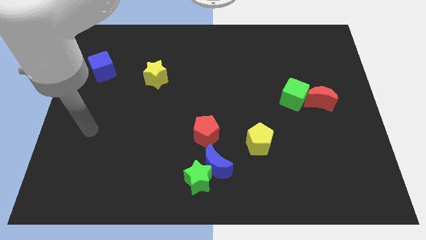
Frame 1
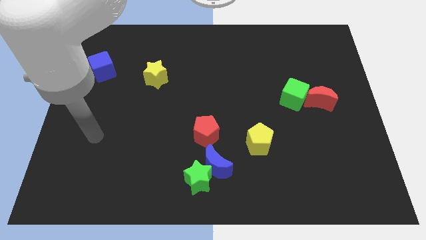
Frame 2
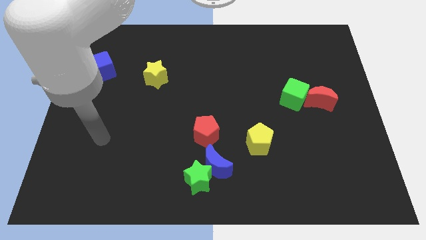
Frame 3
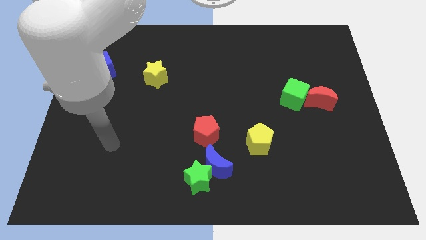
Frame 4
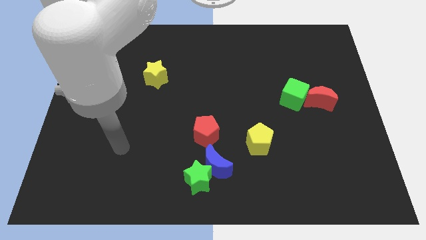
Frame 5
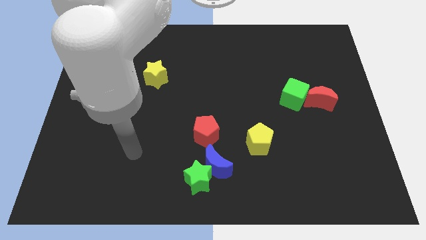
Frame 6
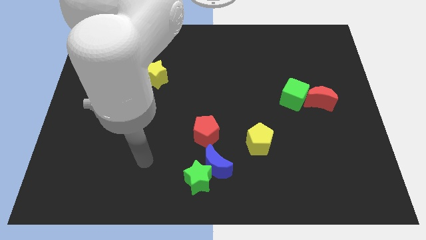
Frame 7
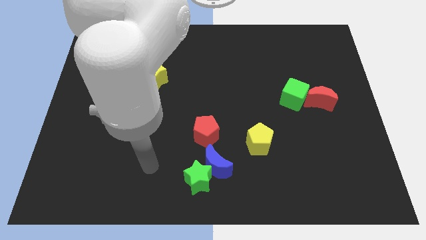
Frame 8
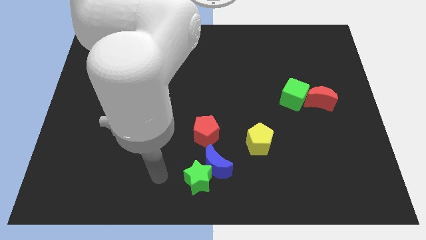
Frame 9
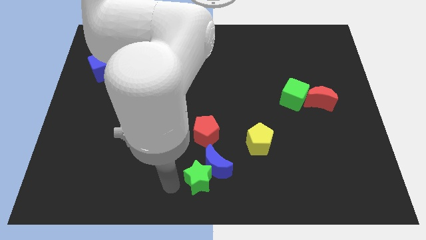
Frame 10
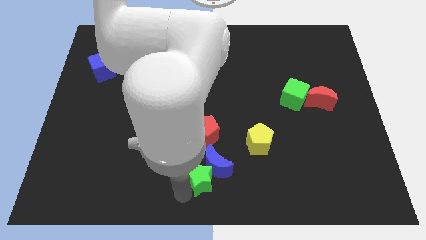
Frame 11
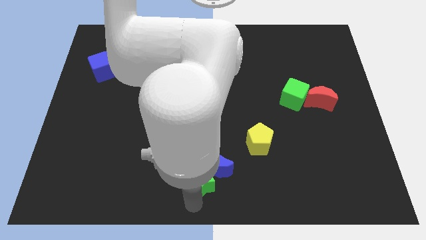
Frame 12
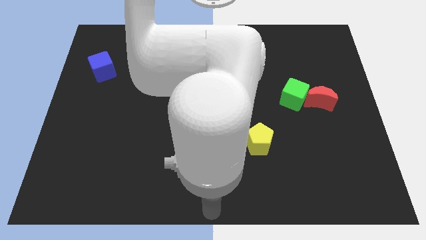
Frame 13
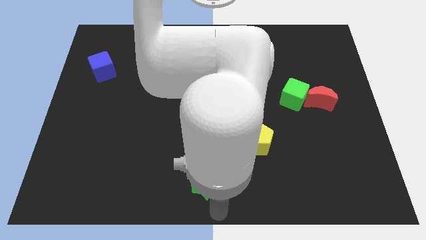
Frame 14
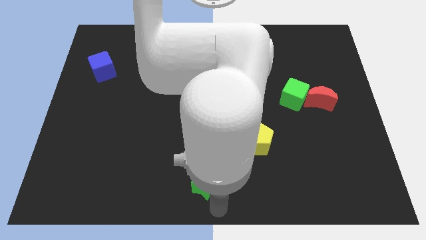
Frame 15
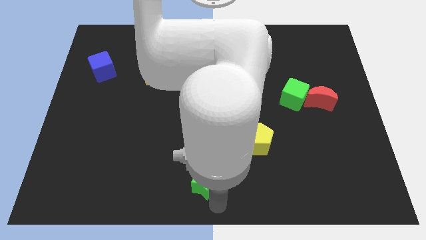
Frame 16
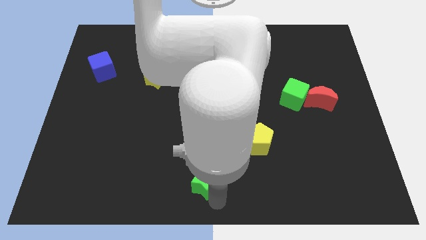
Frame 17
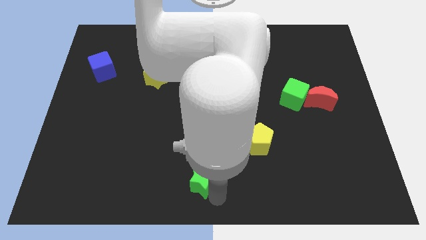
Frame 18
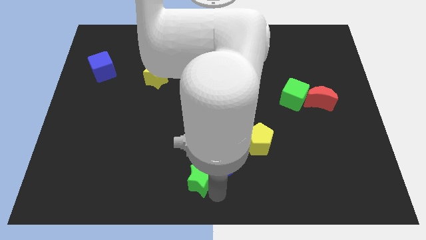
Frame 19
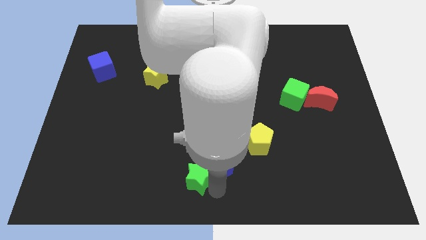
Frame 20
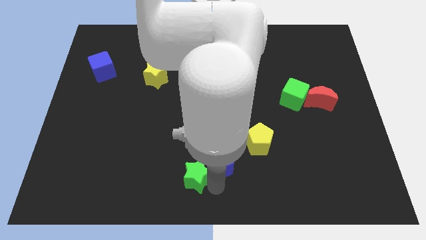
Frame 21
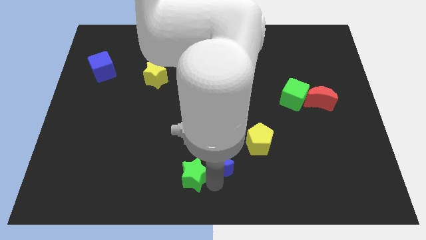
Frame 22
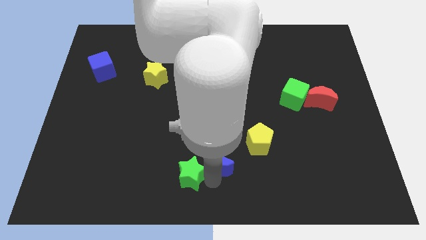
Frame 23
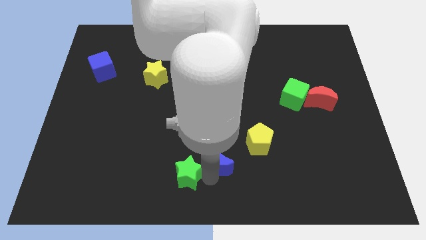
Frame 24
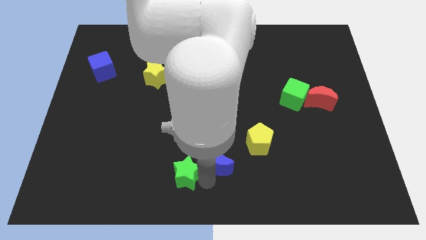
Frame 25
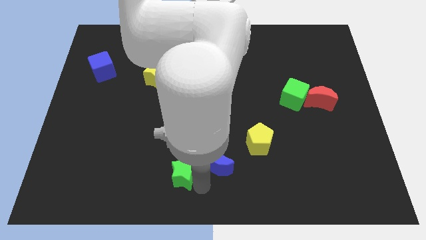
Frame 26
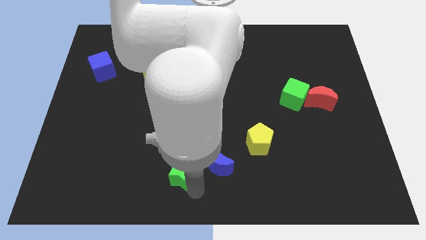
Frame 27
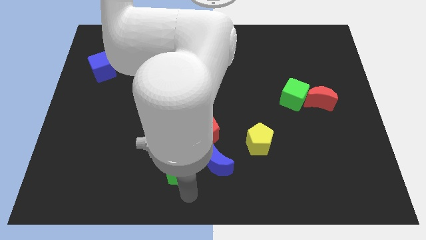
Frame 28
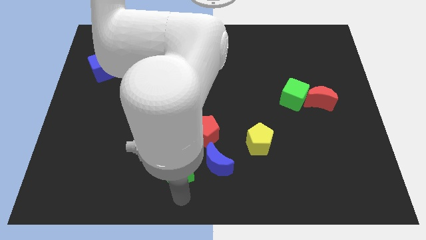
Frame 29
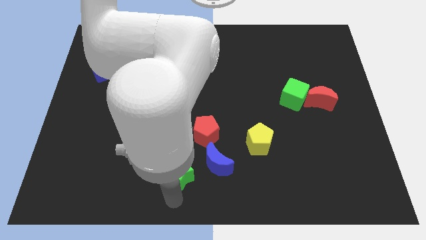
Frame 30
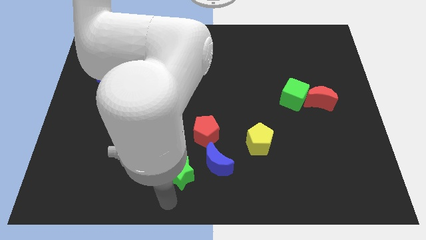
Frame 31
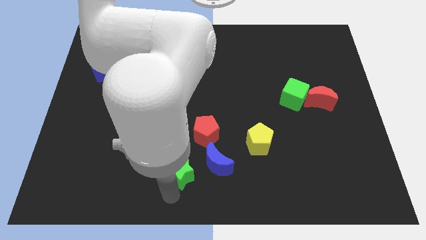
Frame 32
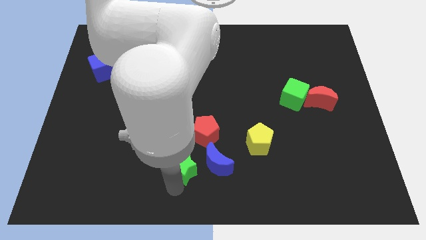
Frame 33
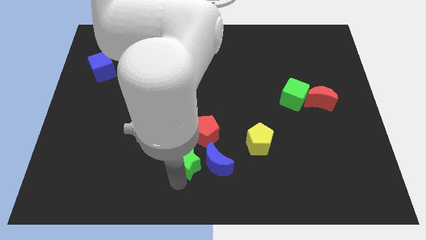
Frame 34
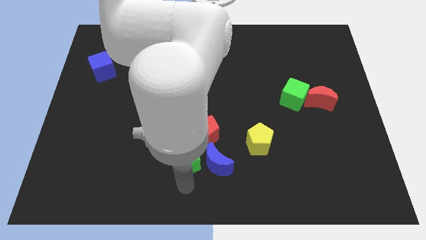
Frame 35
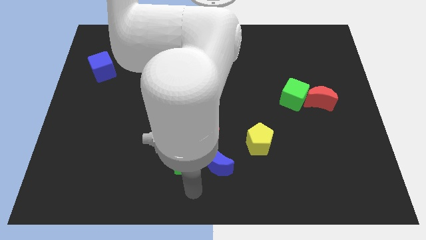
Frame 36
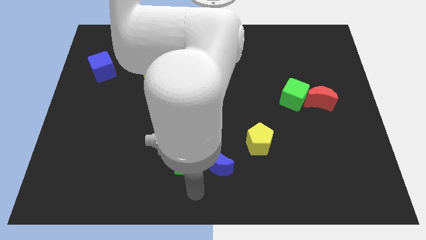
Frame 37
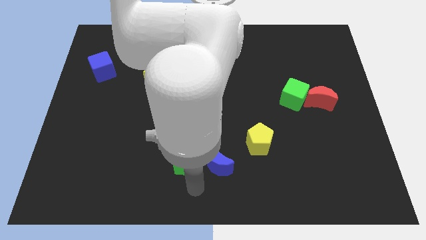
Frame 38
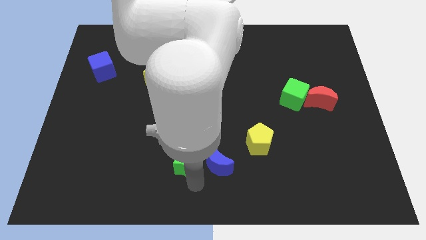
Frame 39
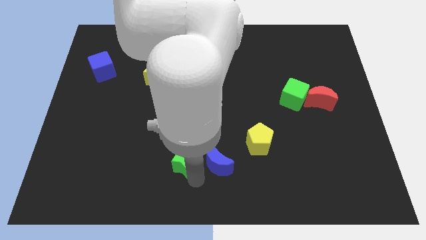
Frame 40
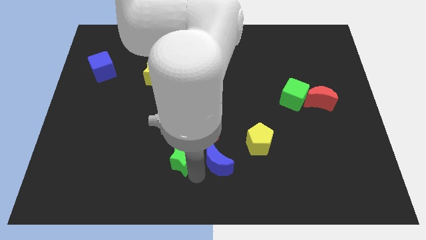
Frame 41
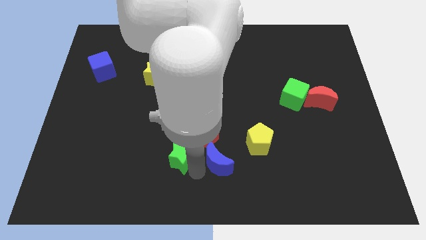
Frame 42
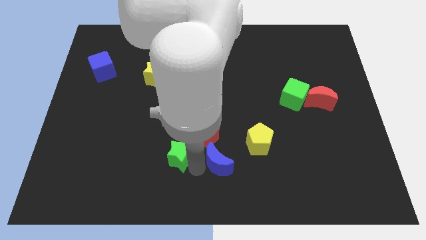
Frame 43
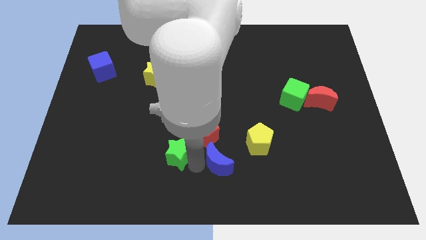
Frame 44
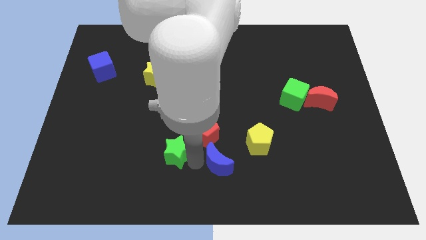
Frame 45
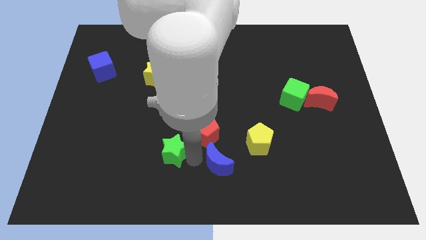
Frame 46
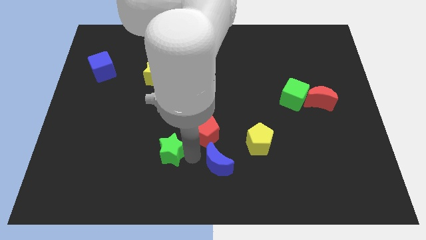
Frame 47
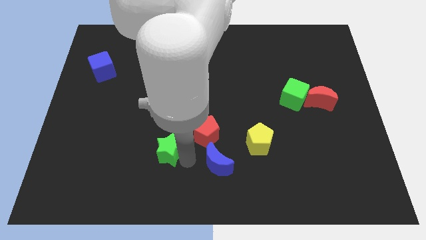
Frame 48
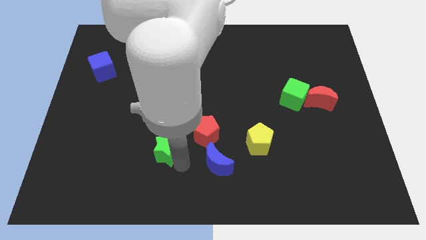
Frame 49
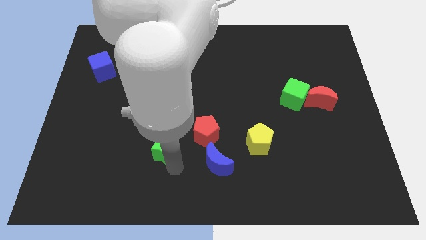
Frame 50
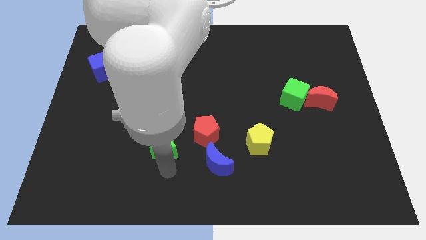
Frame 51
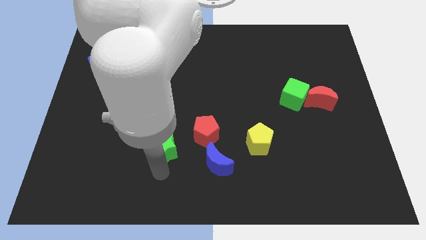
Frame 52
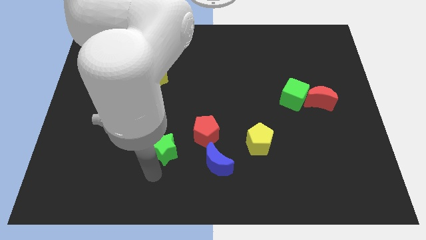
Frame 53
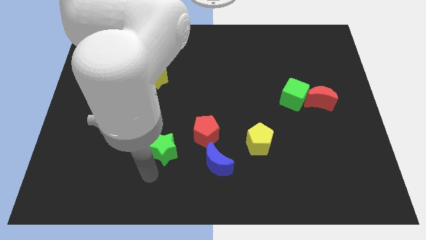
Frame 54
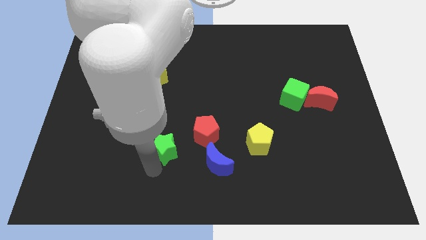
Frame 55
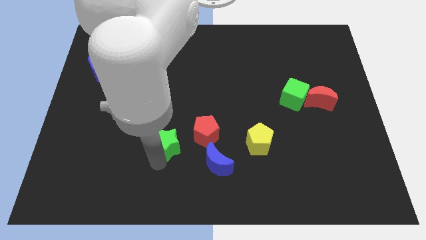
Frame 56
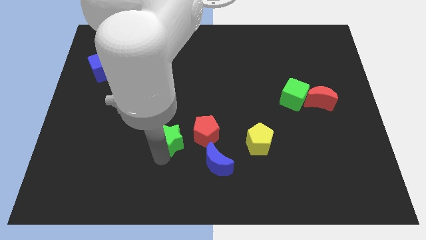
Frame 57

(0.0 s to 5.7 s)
slide the green star a little bit up

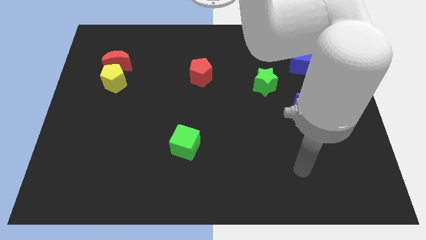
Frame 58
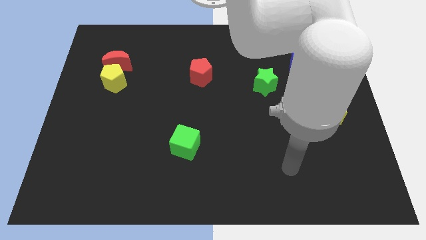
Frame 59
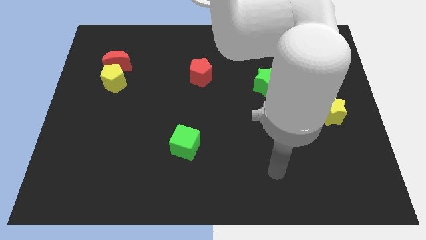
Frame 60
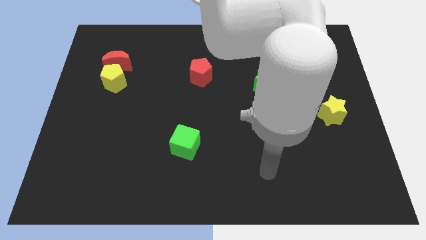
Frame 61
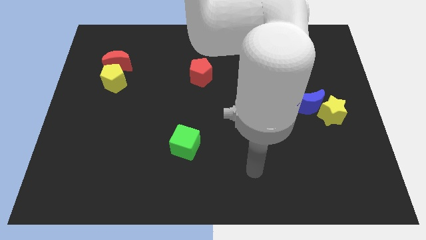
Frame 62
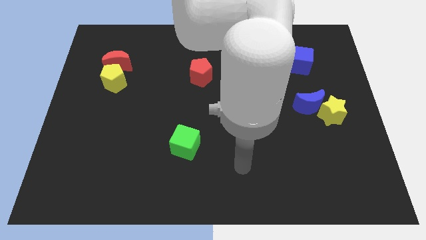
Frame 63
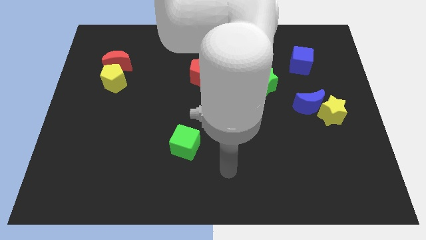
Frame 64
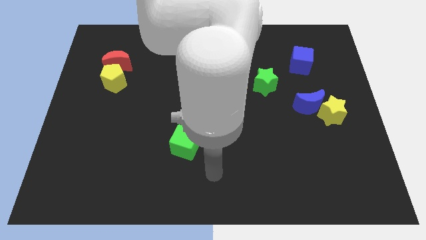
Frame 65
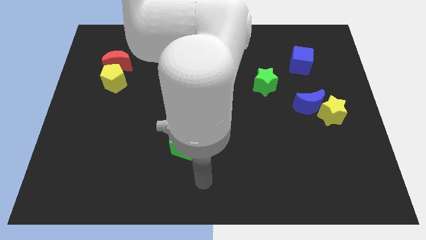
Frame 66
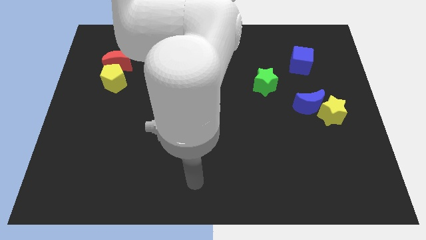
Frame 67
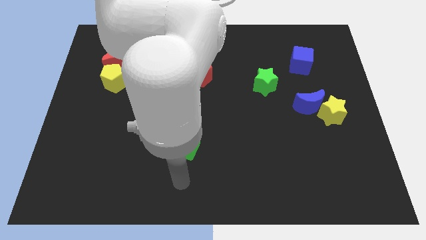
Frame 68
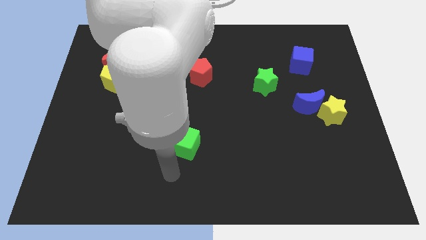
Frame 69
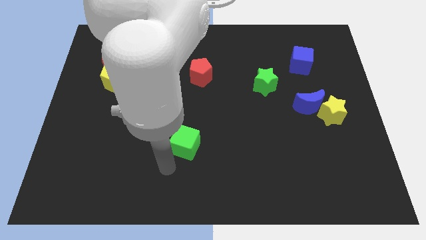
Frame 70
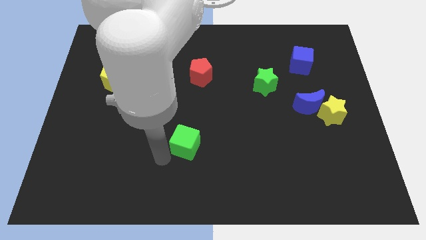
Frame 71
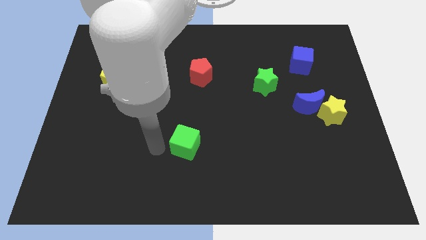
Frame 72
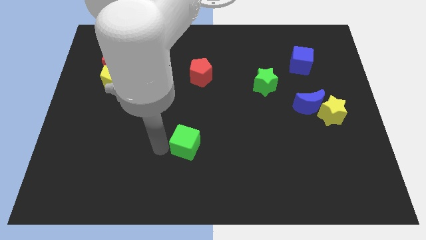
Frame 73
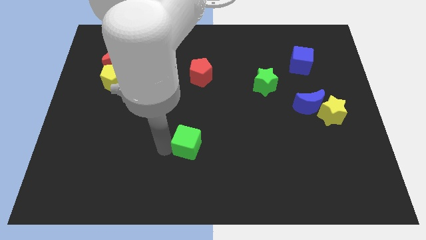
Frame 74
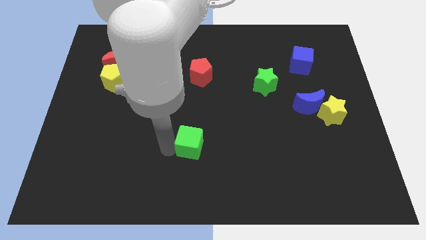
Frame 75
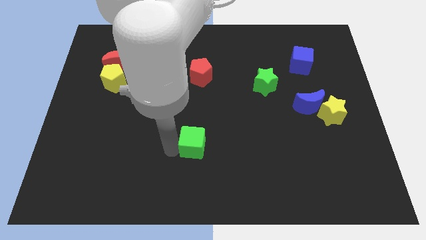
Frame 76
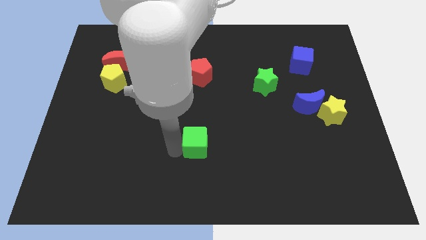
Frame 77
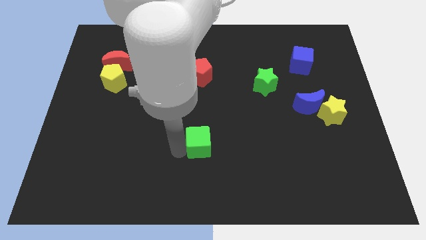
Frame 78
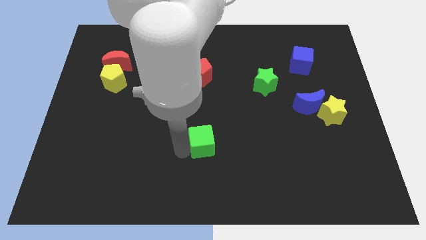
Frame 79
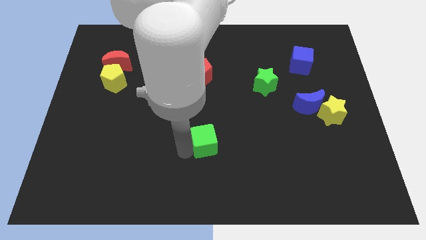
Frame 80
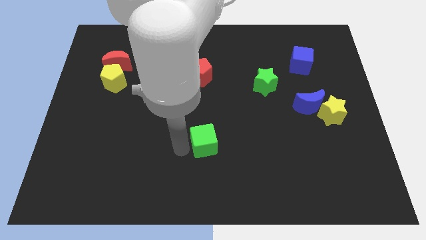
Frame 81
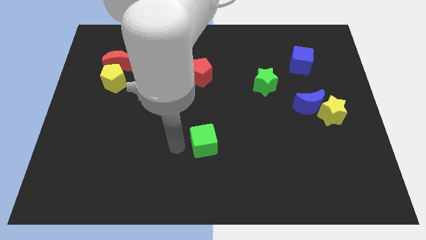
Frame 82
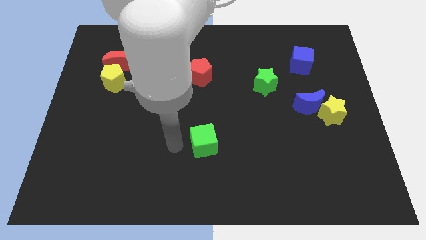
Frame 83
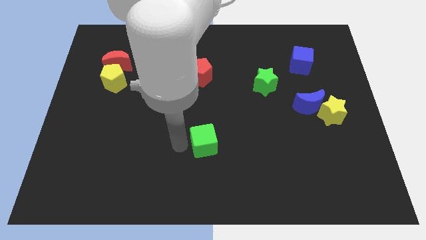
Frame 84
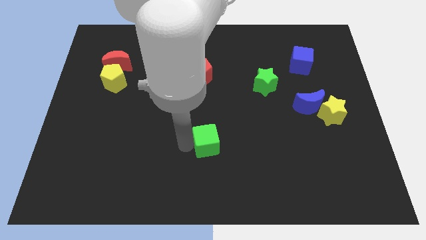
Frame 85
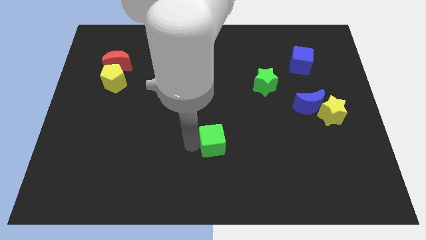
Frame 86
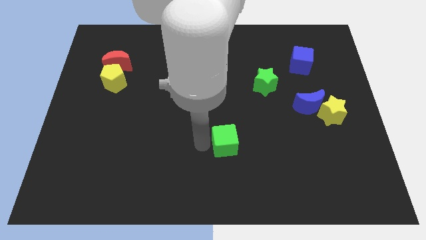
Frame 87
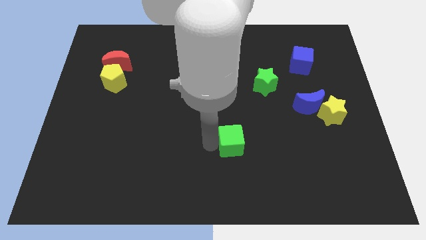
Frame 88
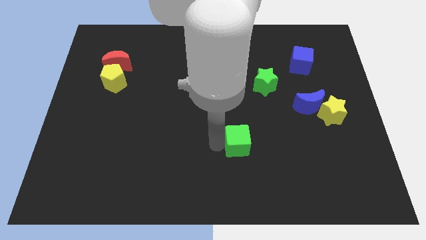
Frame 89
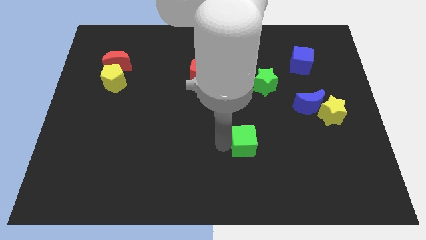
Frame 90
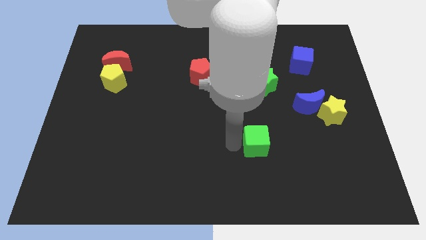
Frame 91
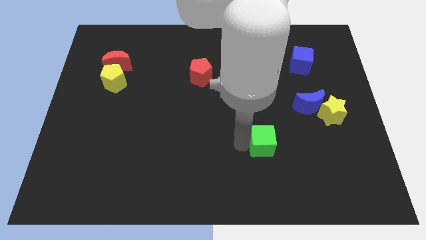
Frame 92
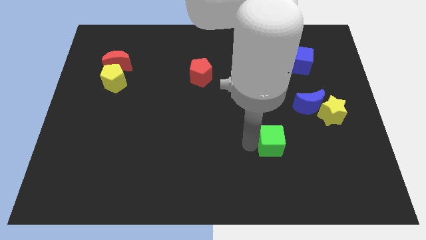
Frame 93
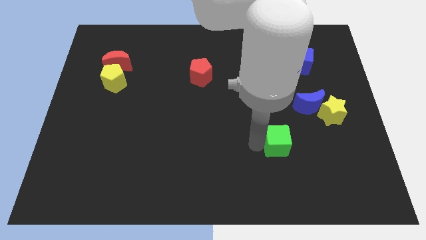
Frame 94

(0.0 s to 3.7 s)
slide the green cube right
